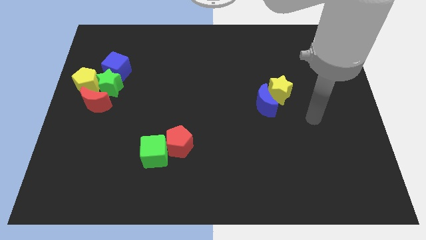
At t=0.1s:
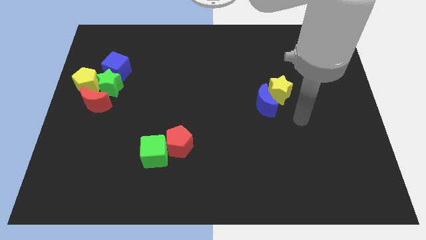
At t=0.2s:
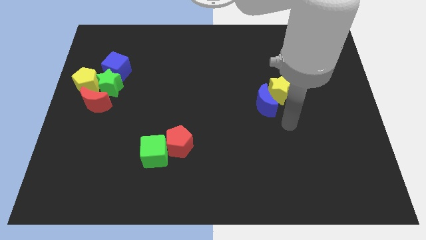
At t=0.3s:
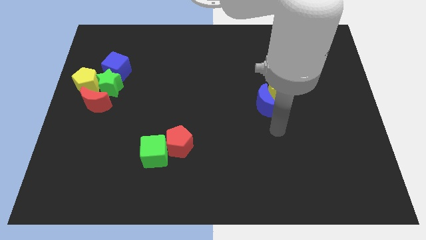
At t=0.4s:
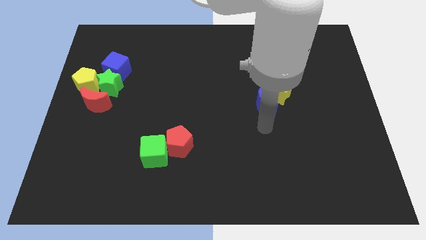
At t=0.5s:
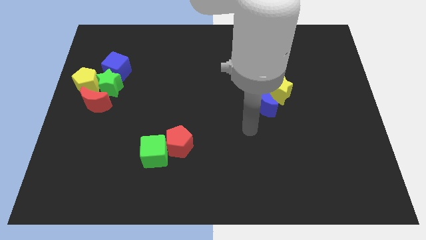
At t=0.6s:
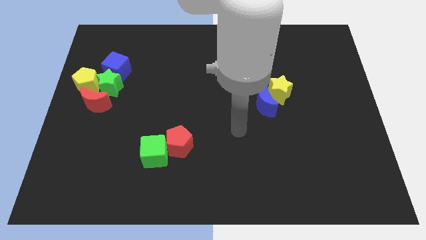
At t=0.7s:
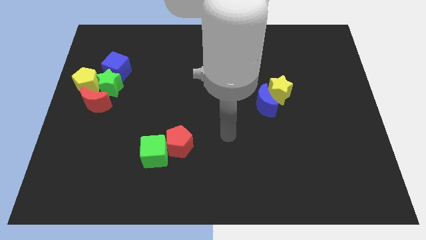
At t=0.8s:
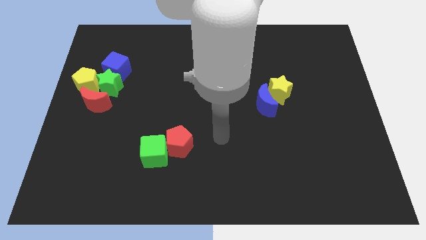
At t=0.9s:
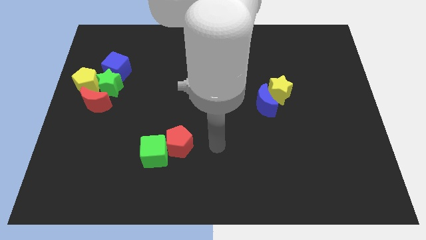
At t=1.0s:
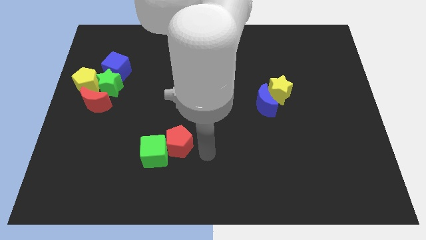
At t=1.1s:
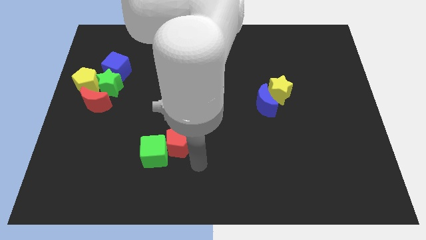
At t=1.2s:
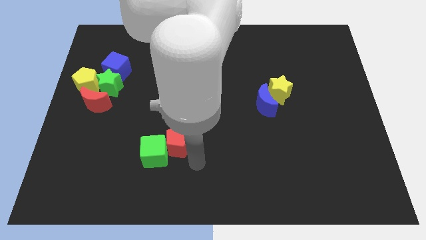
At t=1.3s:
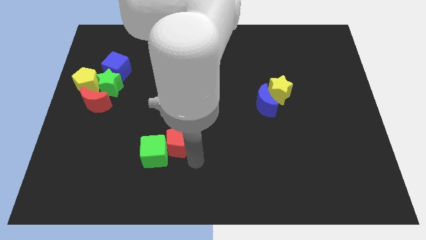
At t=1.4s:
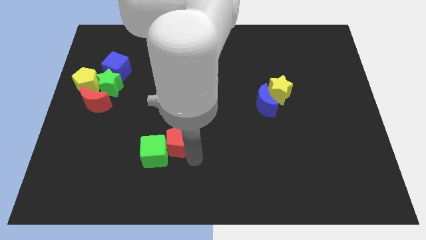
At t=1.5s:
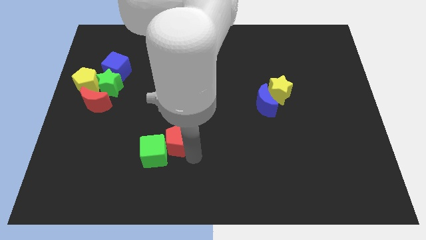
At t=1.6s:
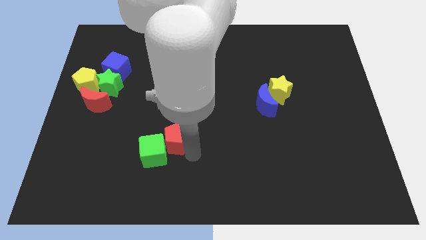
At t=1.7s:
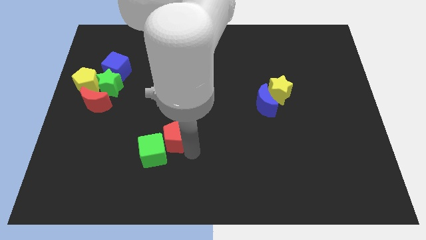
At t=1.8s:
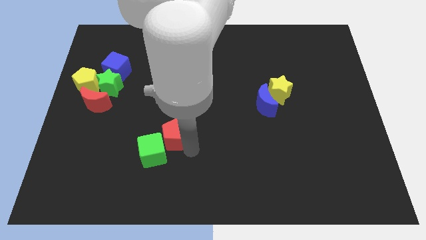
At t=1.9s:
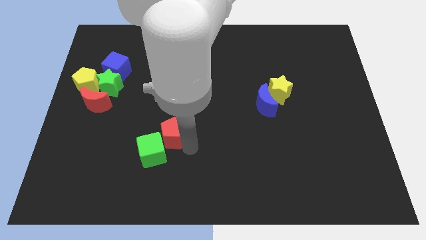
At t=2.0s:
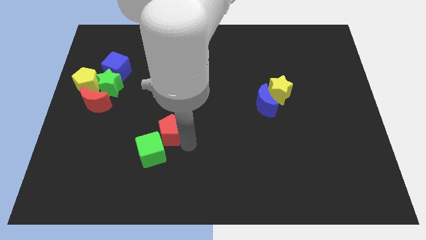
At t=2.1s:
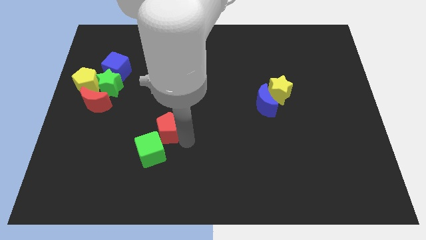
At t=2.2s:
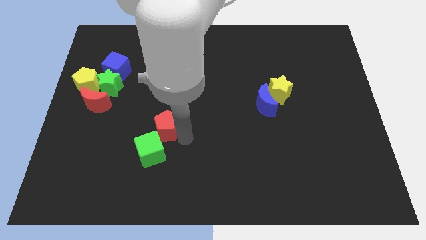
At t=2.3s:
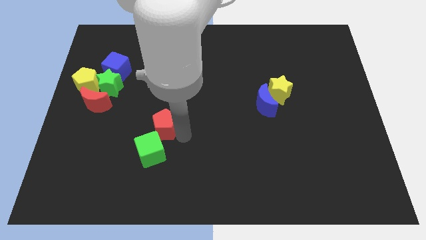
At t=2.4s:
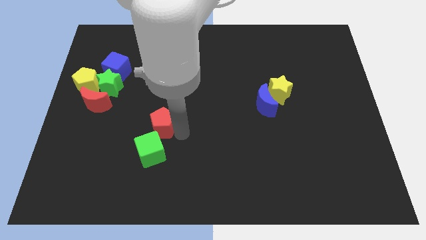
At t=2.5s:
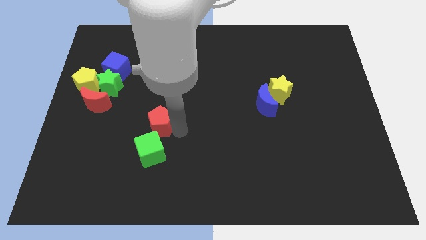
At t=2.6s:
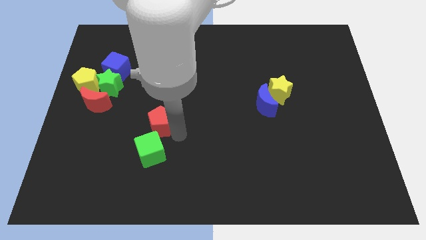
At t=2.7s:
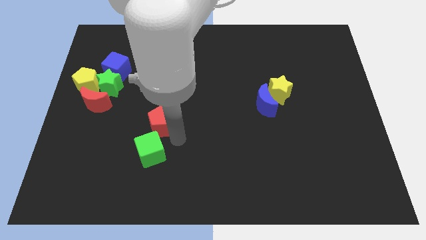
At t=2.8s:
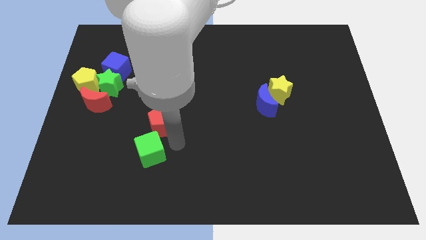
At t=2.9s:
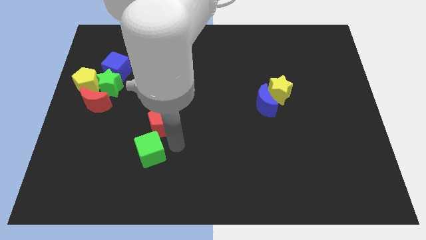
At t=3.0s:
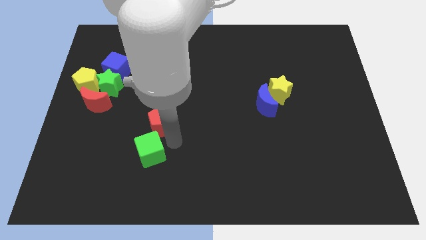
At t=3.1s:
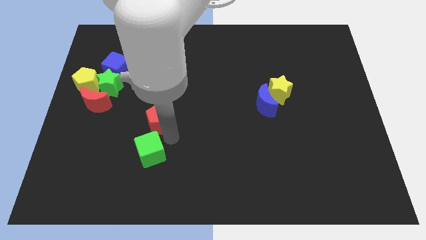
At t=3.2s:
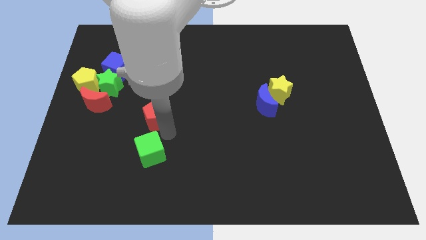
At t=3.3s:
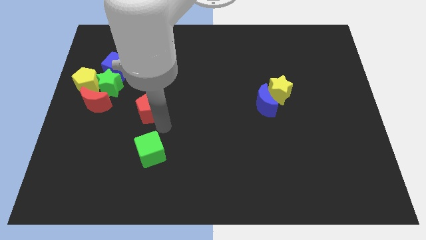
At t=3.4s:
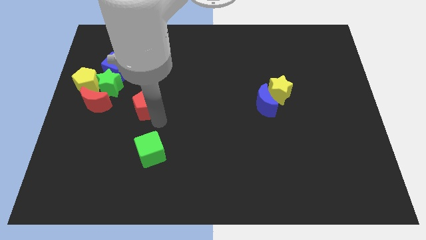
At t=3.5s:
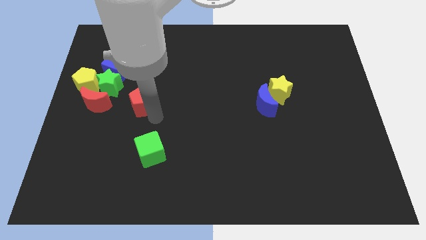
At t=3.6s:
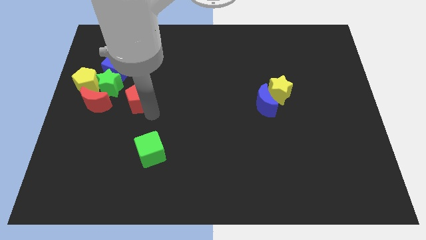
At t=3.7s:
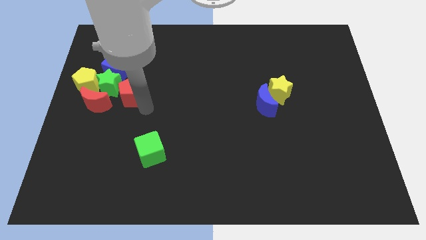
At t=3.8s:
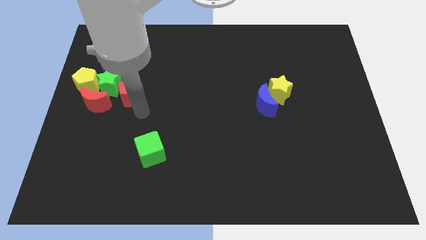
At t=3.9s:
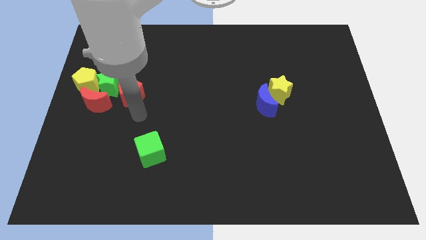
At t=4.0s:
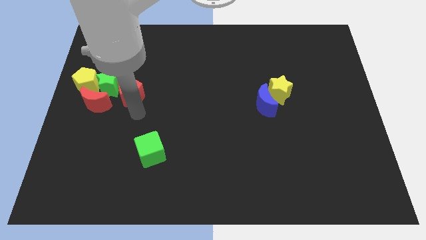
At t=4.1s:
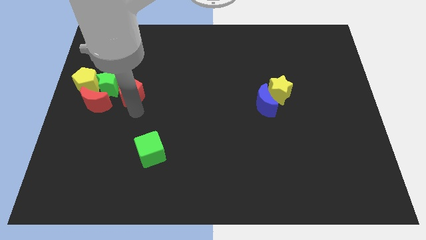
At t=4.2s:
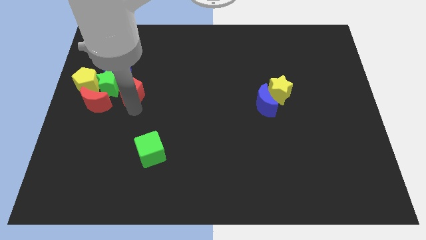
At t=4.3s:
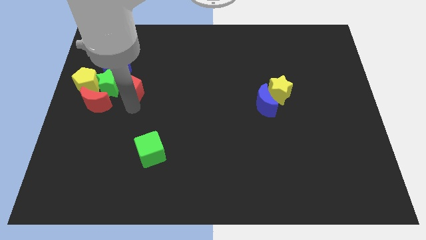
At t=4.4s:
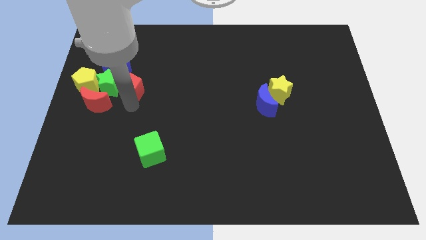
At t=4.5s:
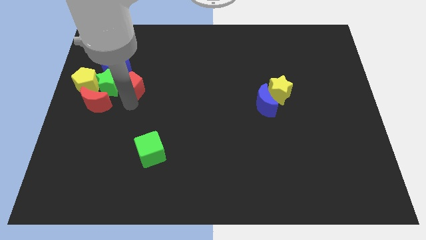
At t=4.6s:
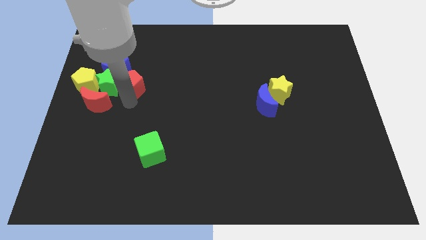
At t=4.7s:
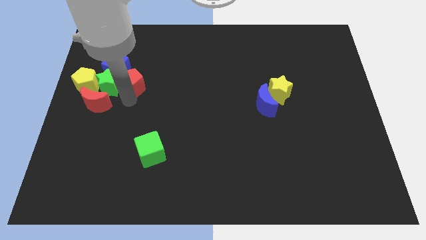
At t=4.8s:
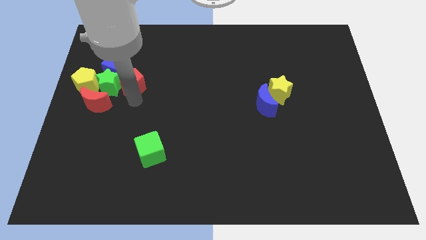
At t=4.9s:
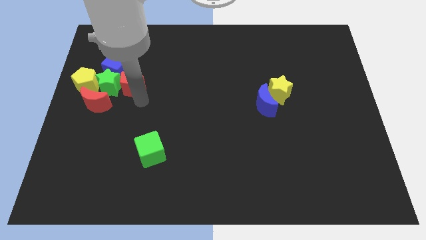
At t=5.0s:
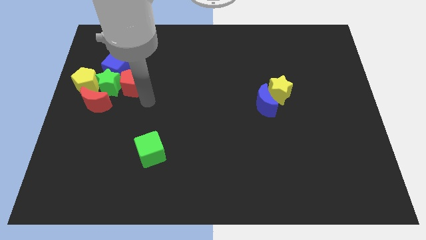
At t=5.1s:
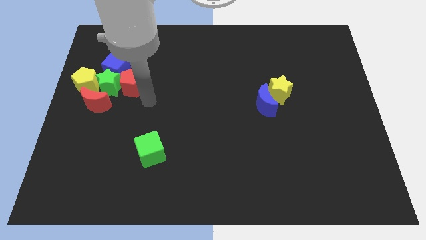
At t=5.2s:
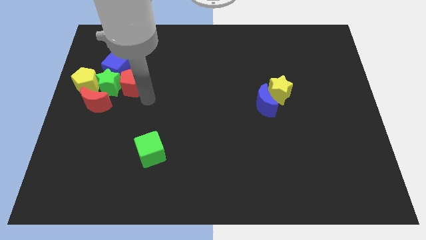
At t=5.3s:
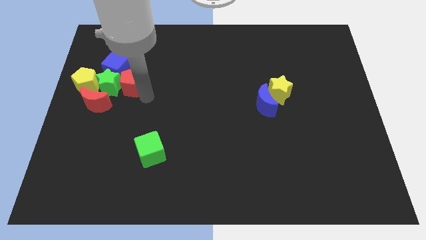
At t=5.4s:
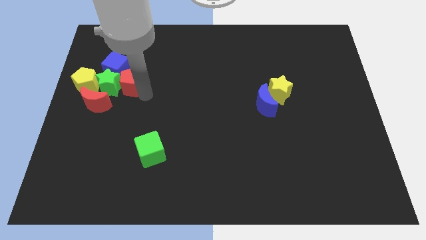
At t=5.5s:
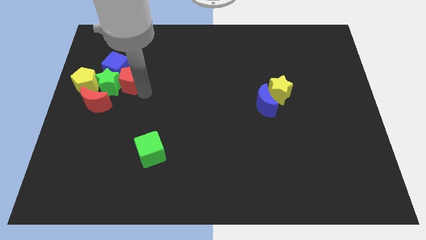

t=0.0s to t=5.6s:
move the red pentagon to the blue cube

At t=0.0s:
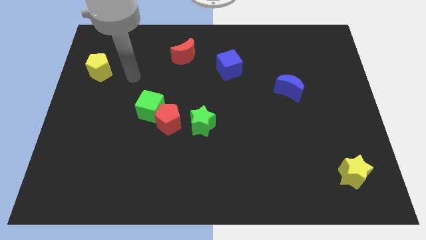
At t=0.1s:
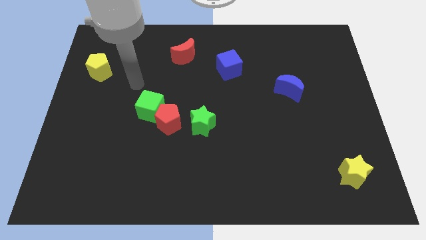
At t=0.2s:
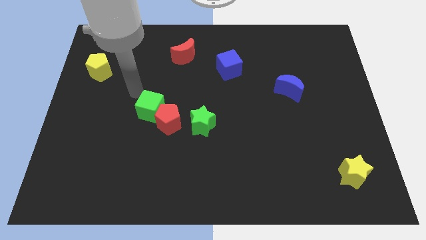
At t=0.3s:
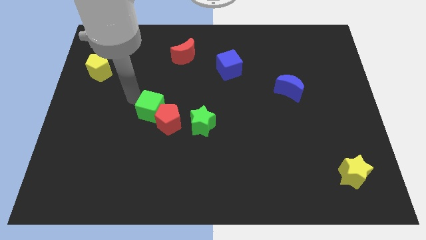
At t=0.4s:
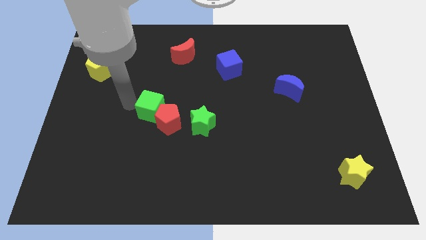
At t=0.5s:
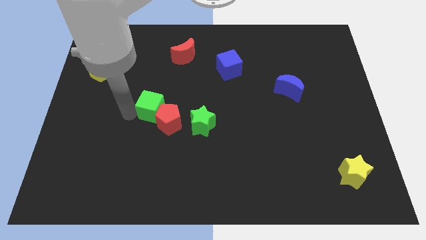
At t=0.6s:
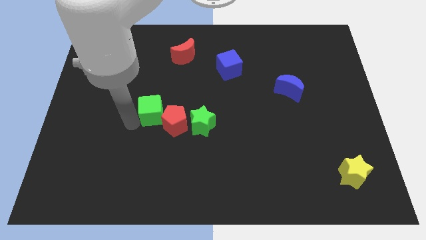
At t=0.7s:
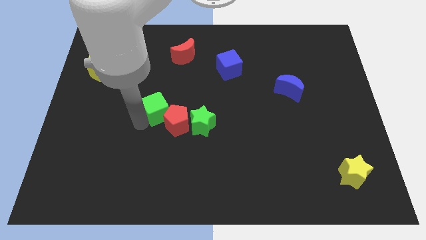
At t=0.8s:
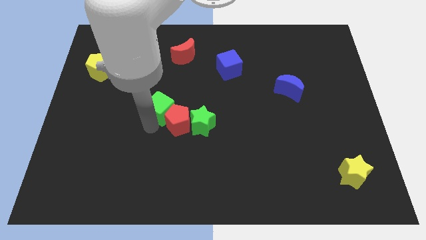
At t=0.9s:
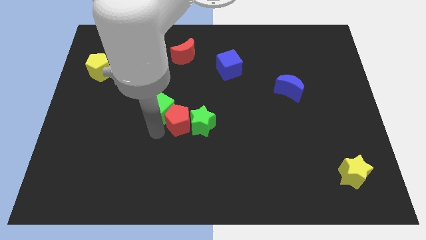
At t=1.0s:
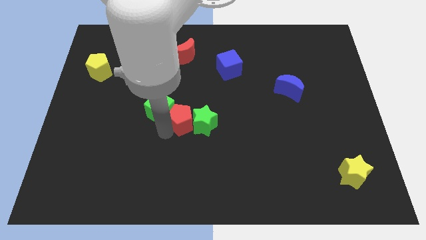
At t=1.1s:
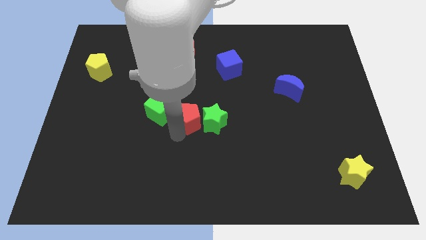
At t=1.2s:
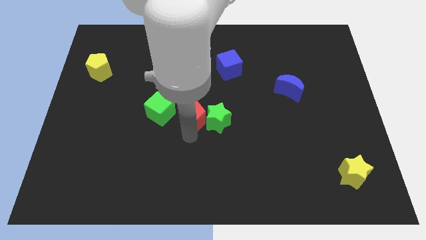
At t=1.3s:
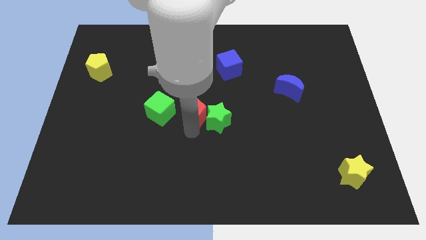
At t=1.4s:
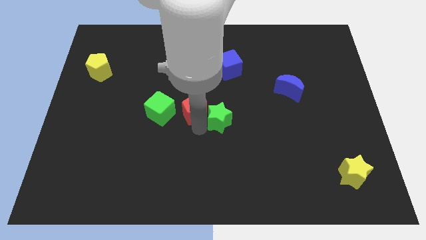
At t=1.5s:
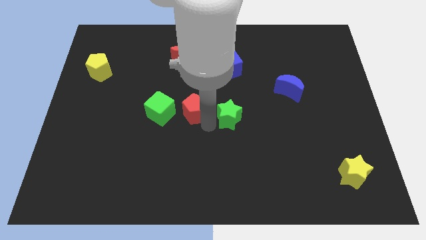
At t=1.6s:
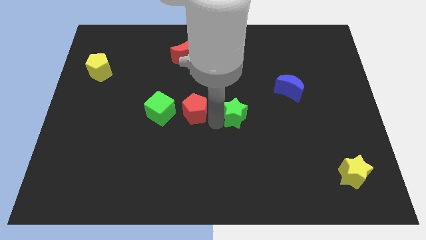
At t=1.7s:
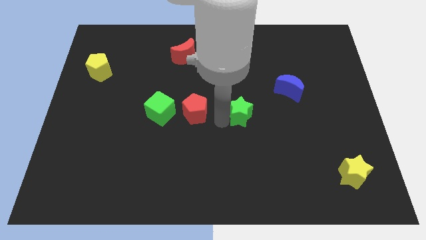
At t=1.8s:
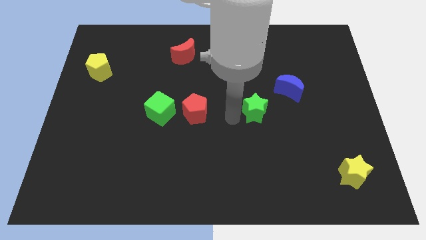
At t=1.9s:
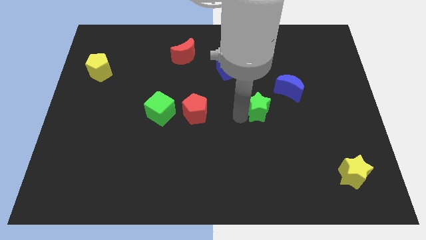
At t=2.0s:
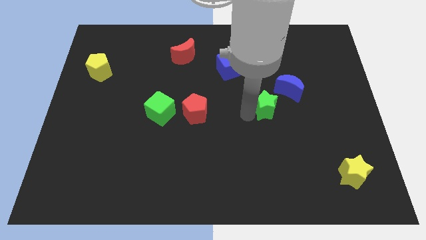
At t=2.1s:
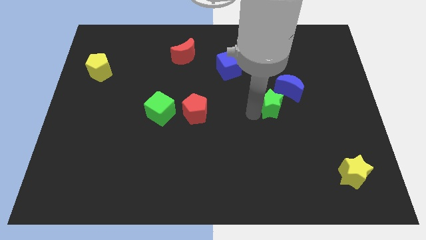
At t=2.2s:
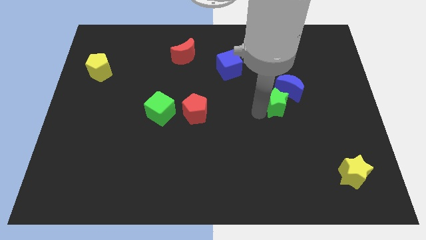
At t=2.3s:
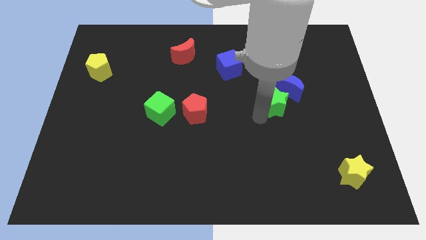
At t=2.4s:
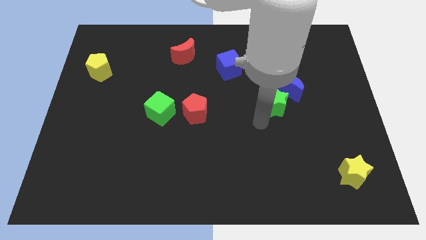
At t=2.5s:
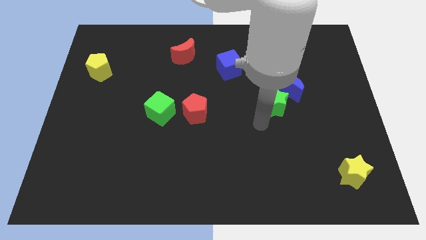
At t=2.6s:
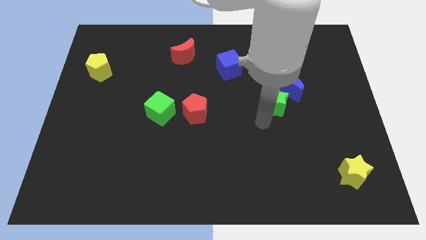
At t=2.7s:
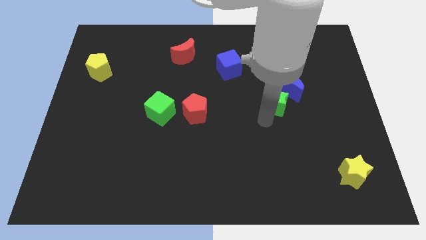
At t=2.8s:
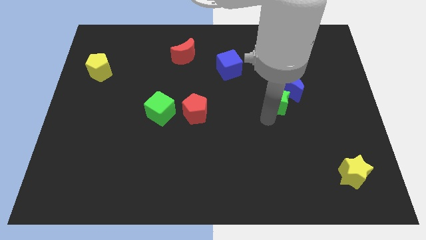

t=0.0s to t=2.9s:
put the green star towards the blue moon

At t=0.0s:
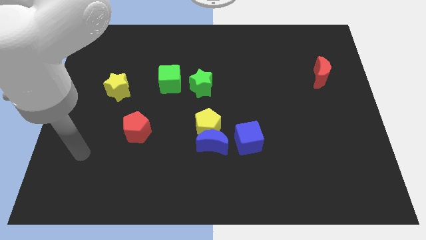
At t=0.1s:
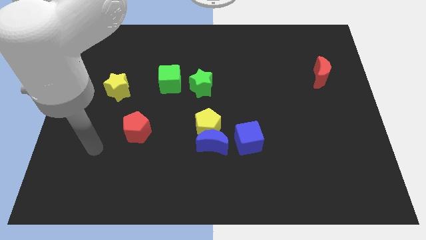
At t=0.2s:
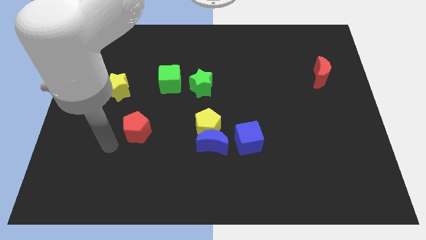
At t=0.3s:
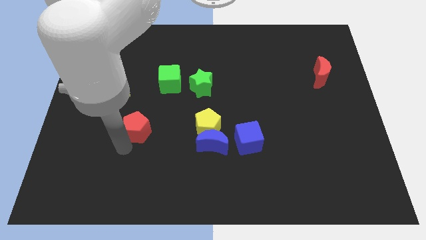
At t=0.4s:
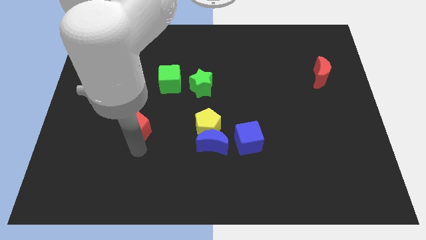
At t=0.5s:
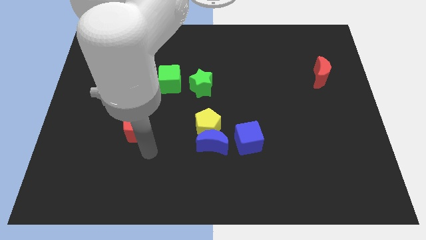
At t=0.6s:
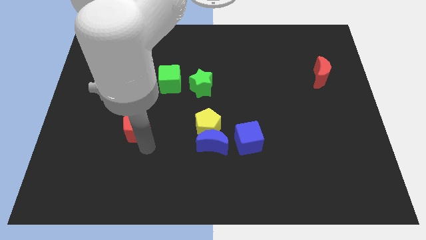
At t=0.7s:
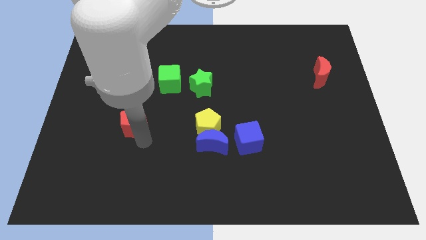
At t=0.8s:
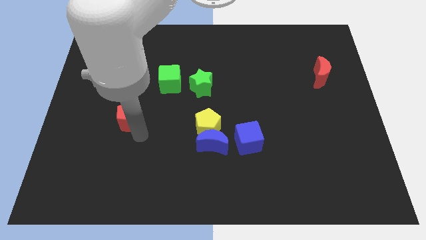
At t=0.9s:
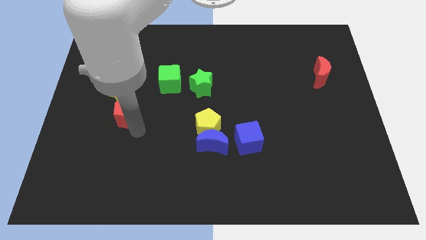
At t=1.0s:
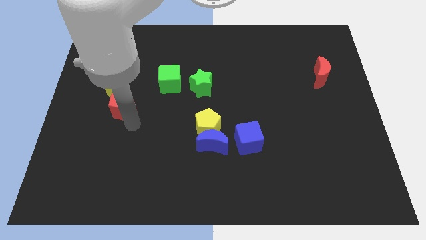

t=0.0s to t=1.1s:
push the red pentagon towards the yellow star
